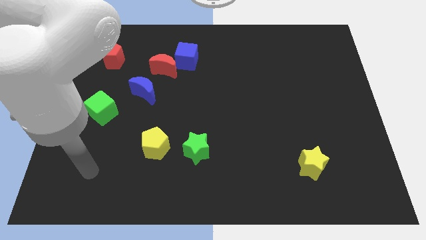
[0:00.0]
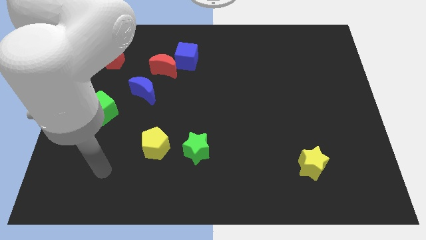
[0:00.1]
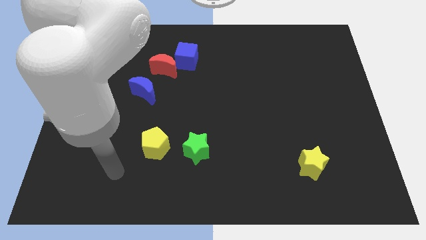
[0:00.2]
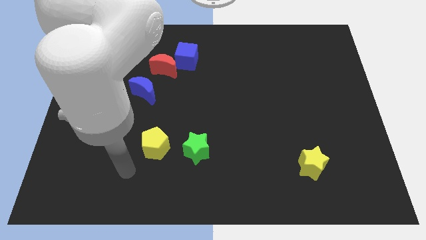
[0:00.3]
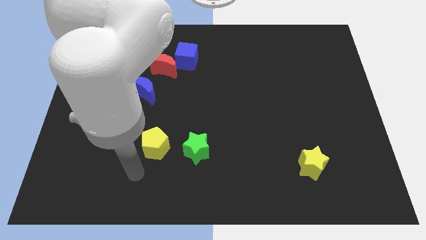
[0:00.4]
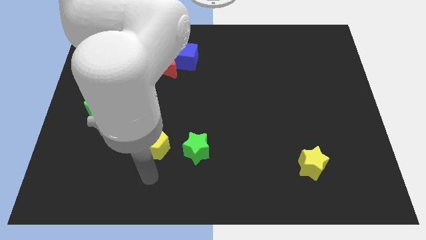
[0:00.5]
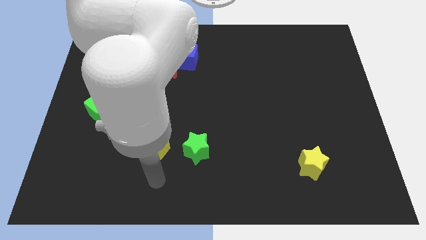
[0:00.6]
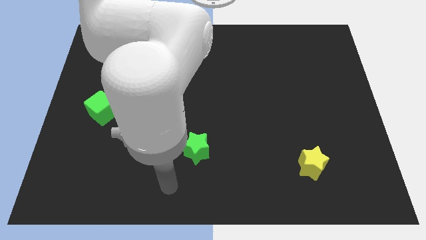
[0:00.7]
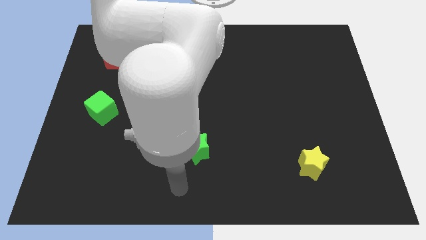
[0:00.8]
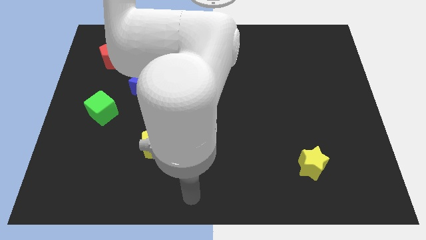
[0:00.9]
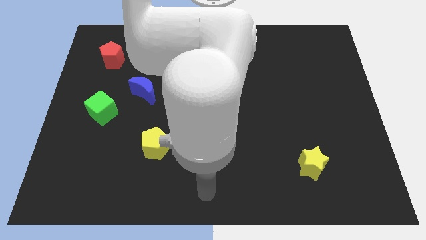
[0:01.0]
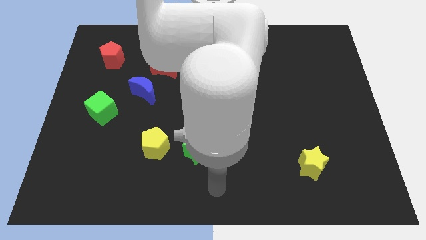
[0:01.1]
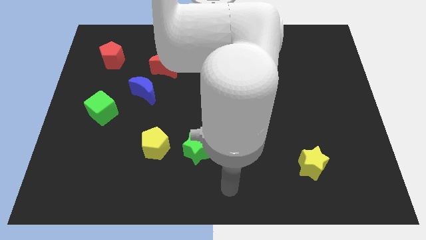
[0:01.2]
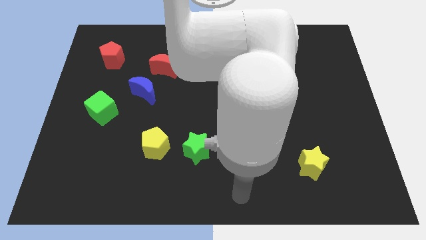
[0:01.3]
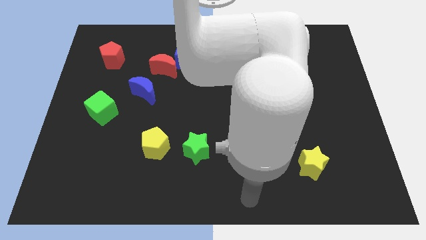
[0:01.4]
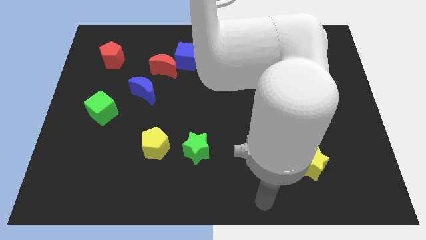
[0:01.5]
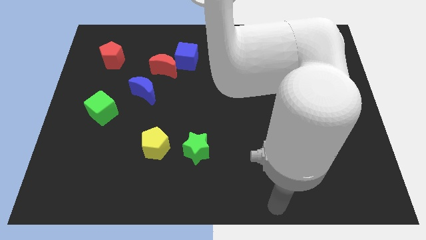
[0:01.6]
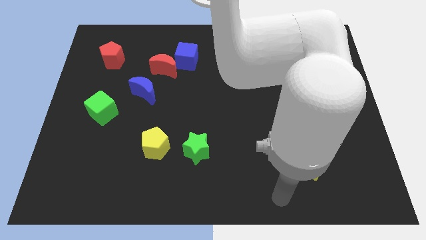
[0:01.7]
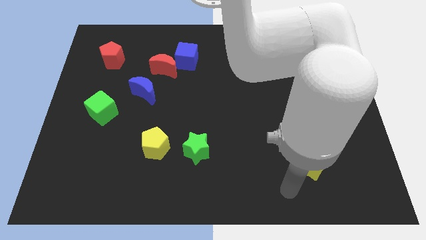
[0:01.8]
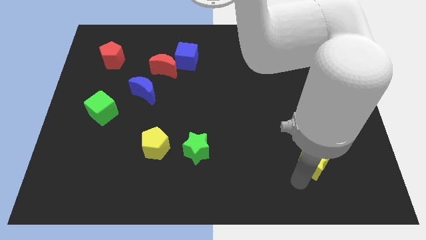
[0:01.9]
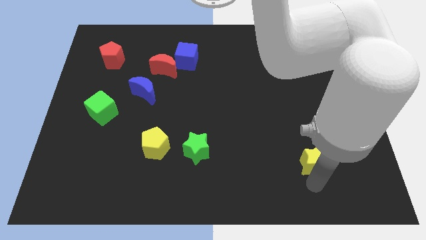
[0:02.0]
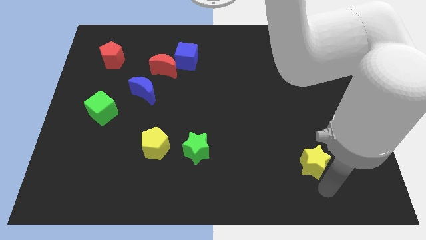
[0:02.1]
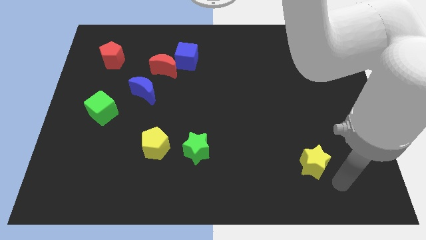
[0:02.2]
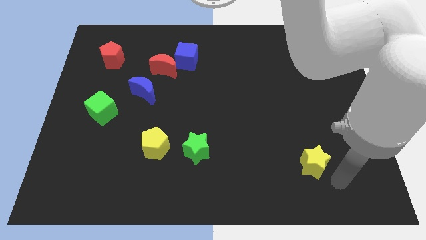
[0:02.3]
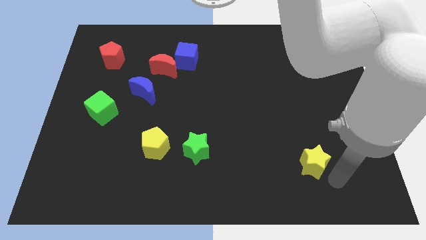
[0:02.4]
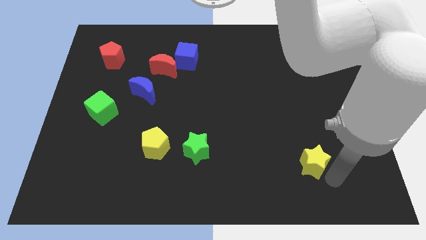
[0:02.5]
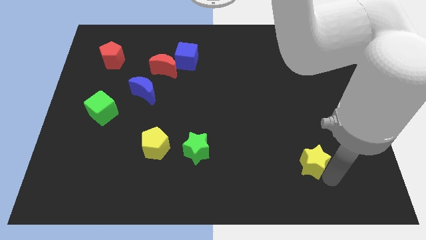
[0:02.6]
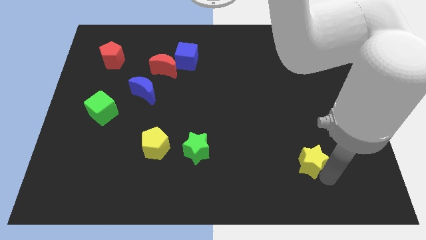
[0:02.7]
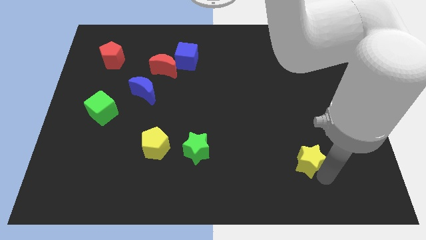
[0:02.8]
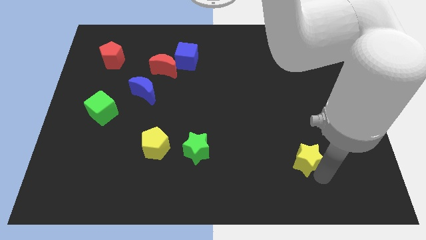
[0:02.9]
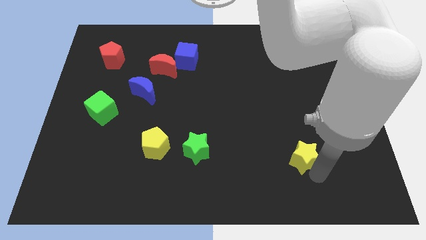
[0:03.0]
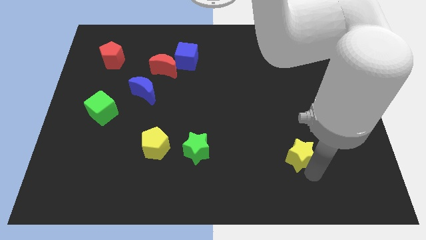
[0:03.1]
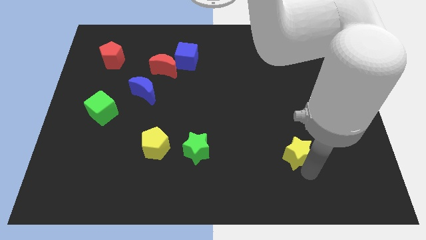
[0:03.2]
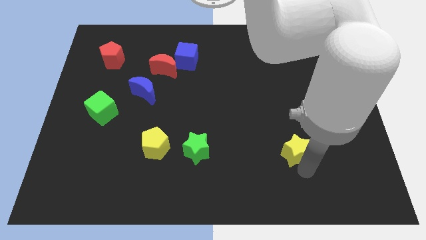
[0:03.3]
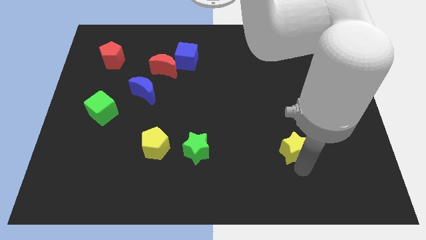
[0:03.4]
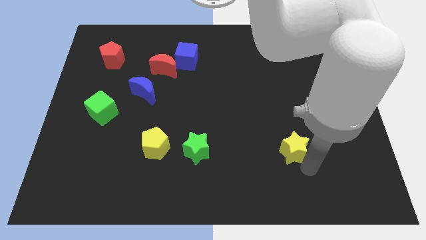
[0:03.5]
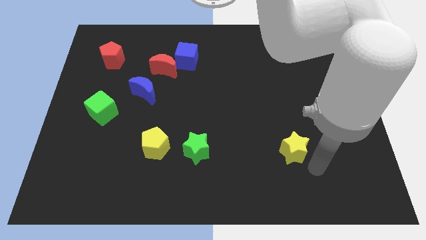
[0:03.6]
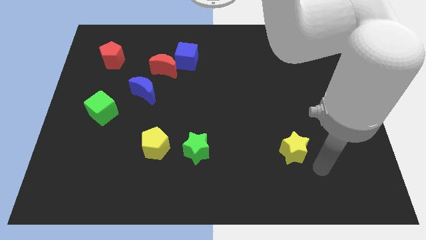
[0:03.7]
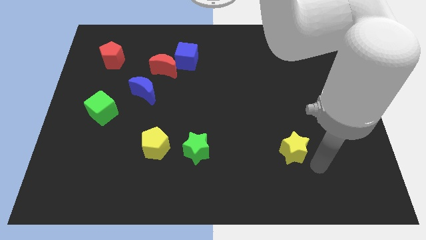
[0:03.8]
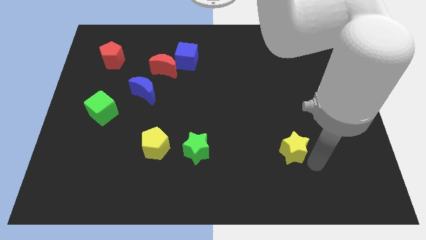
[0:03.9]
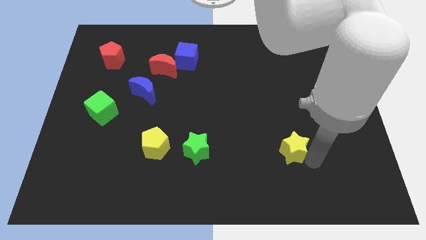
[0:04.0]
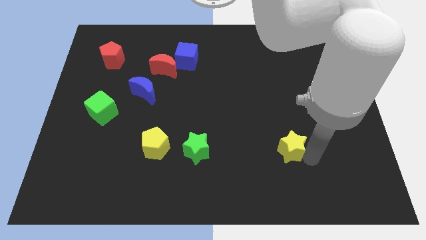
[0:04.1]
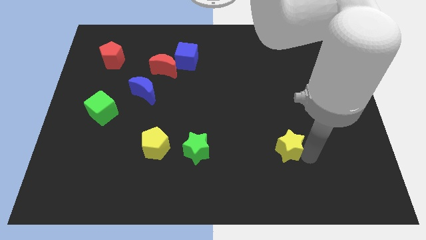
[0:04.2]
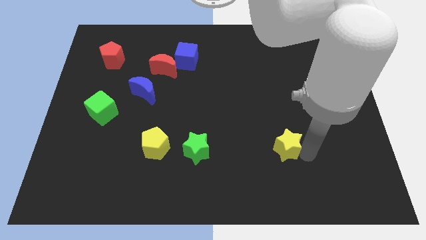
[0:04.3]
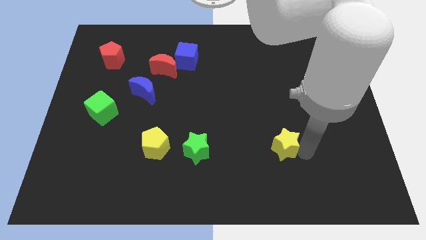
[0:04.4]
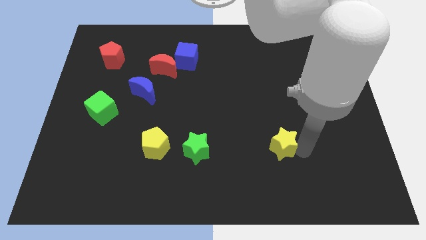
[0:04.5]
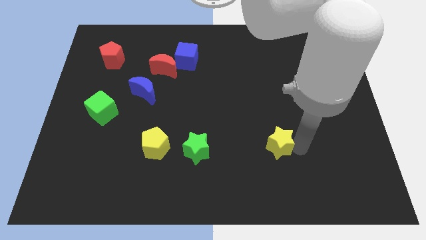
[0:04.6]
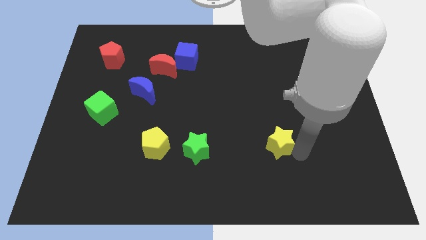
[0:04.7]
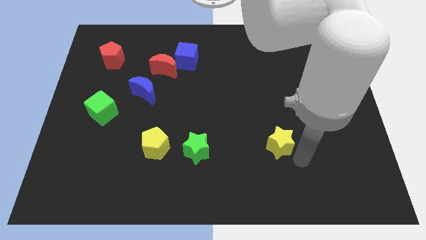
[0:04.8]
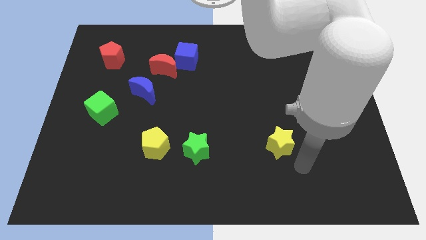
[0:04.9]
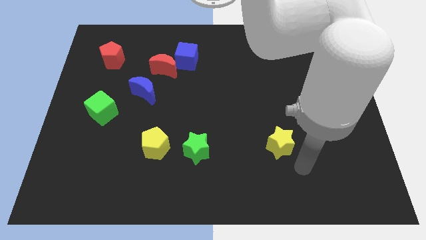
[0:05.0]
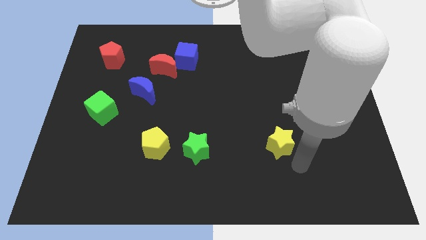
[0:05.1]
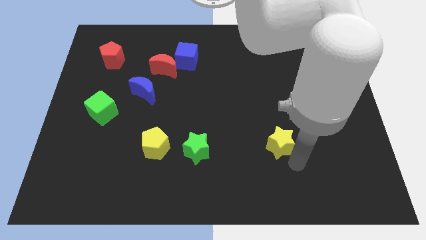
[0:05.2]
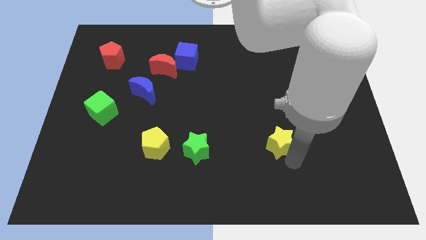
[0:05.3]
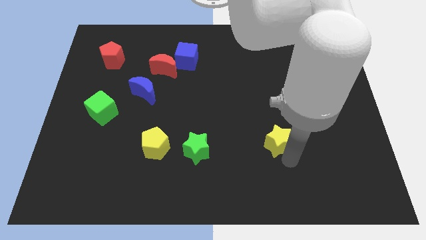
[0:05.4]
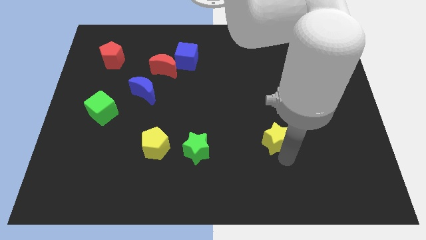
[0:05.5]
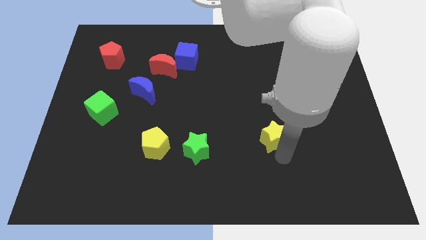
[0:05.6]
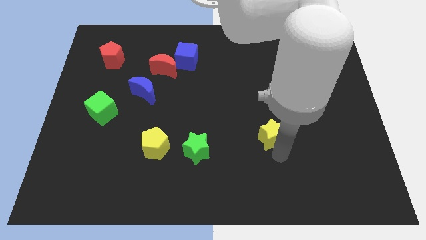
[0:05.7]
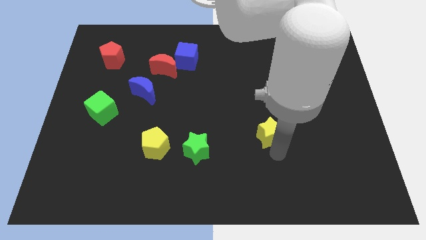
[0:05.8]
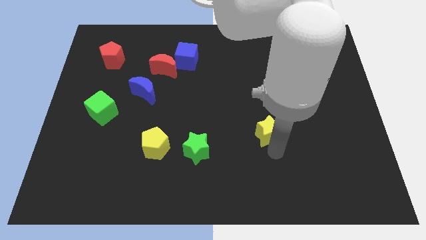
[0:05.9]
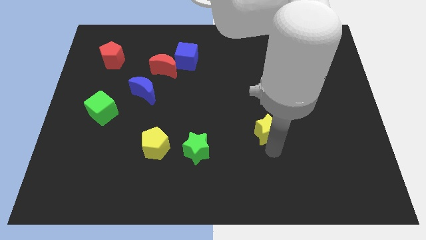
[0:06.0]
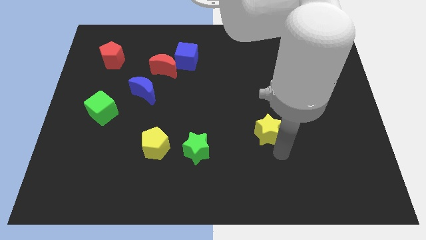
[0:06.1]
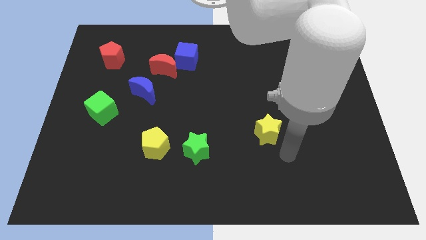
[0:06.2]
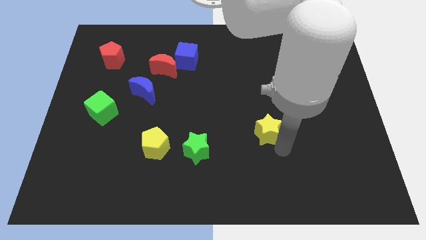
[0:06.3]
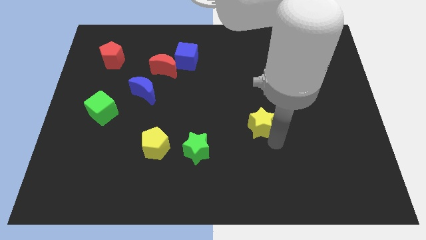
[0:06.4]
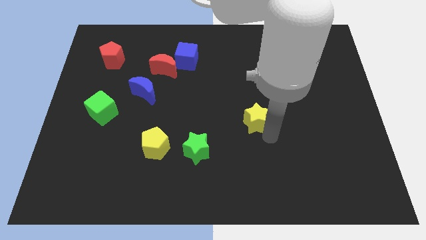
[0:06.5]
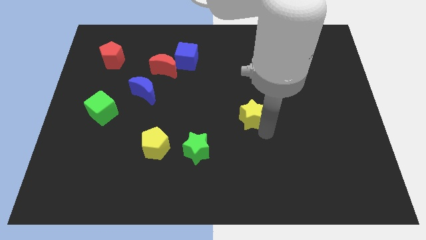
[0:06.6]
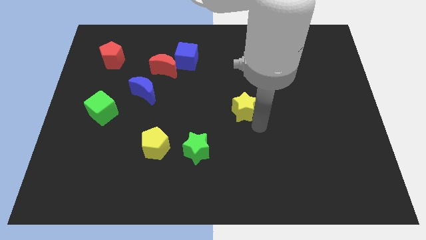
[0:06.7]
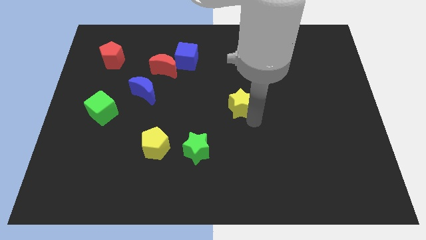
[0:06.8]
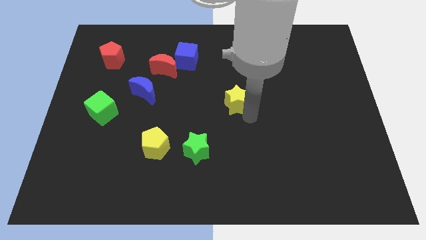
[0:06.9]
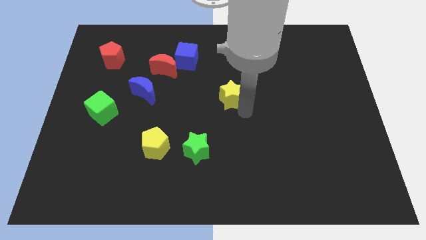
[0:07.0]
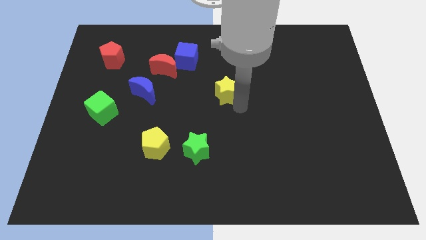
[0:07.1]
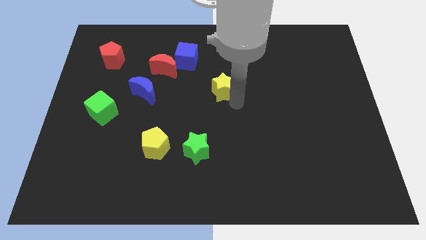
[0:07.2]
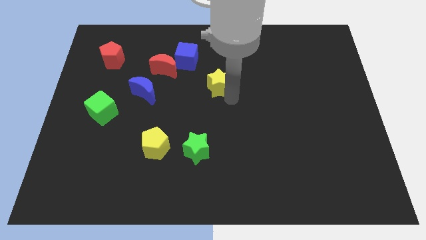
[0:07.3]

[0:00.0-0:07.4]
move the yellow star to the bottom right side of the blue cube
